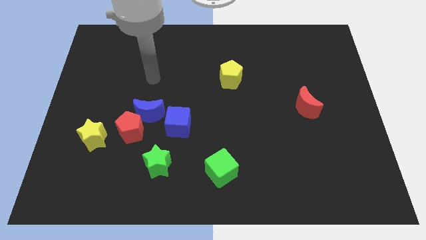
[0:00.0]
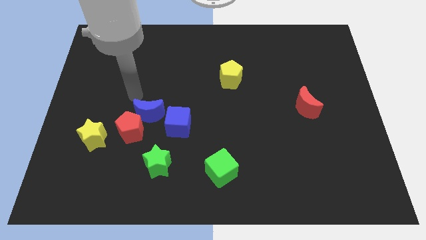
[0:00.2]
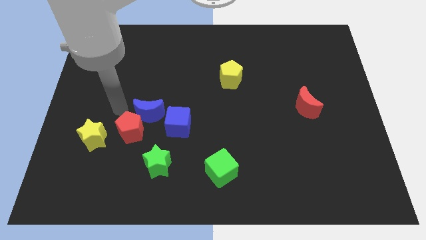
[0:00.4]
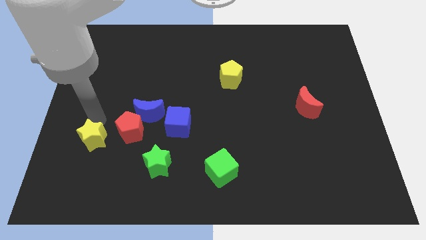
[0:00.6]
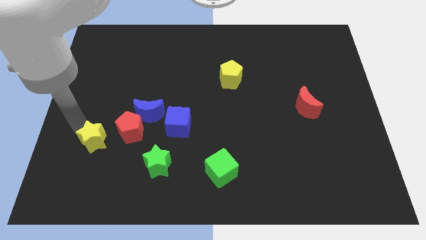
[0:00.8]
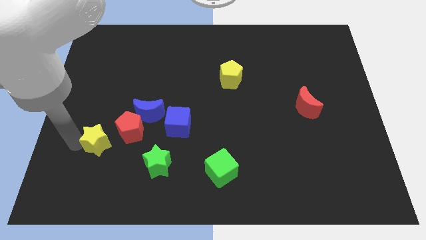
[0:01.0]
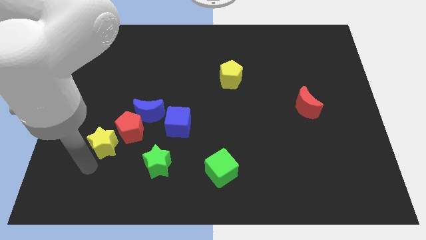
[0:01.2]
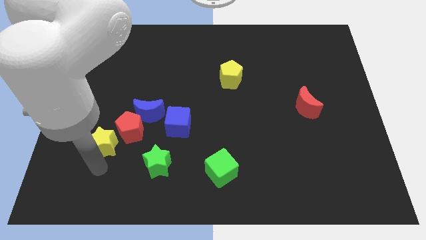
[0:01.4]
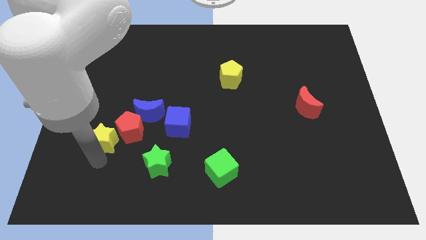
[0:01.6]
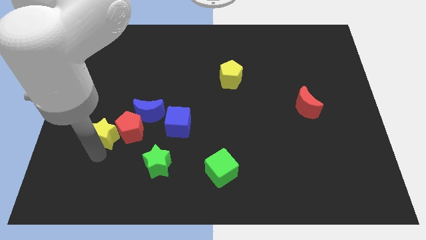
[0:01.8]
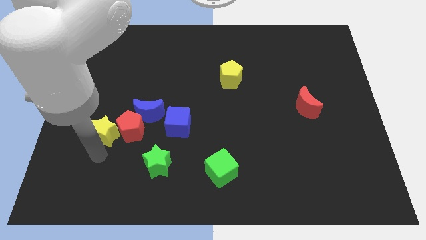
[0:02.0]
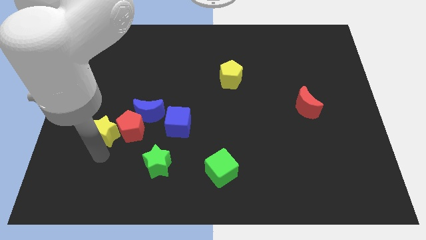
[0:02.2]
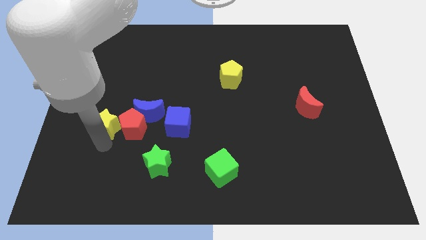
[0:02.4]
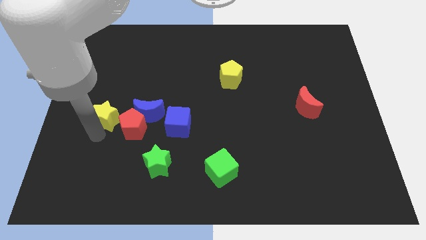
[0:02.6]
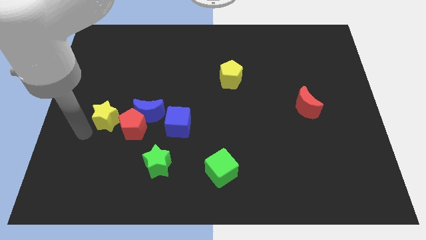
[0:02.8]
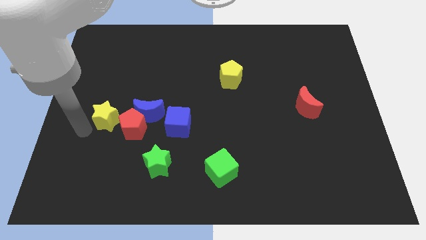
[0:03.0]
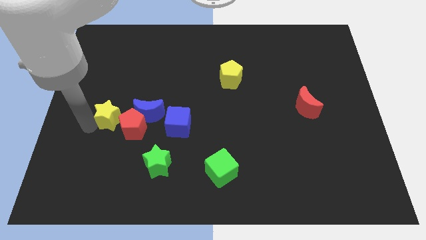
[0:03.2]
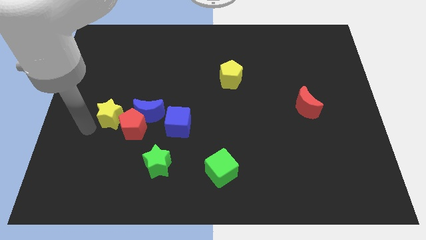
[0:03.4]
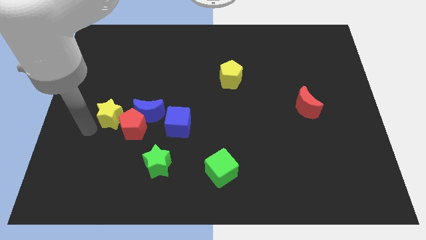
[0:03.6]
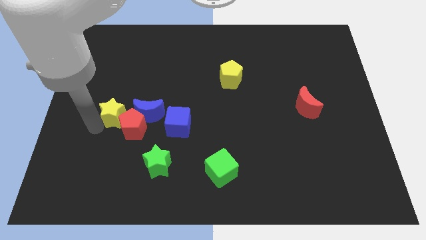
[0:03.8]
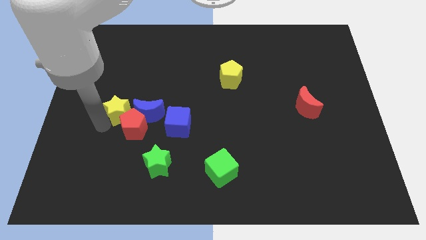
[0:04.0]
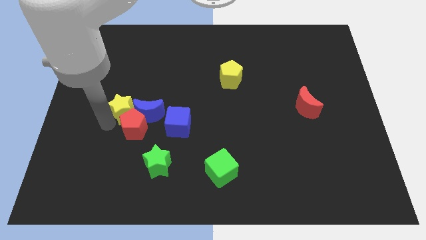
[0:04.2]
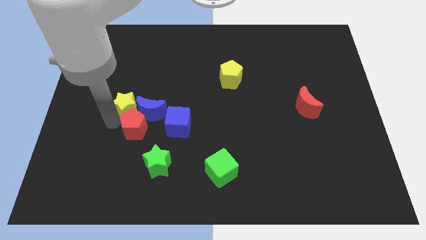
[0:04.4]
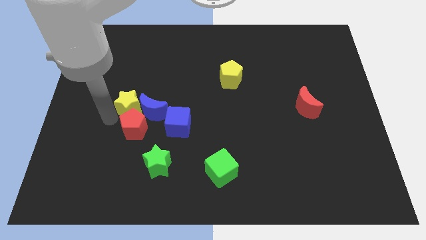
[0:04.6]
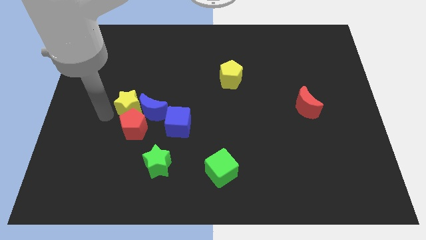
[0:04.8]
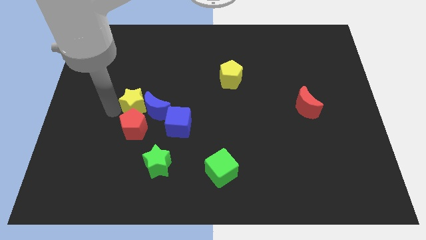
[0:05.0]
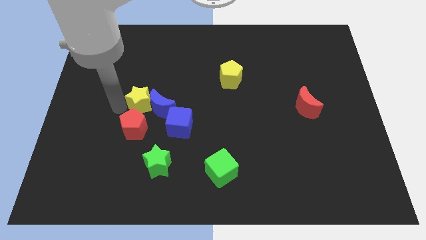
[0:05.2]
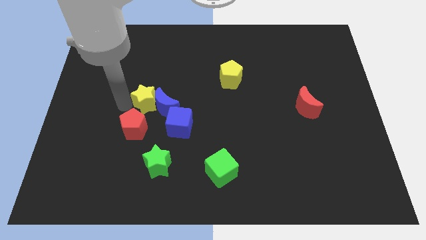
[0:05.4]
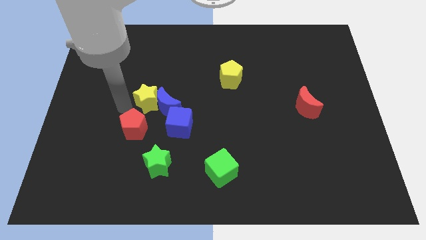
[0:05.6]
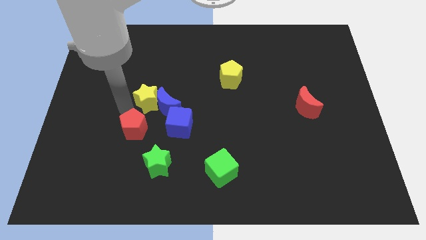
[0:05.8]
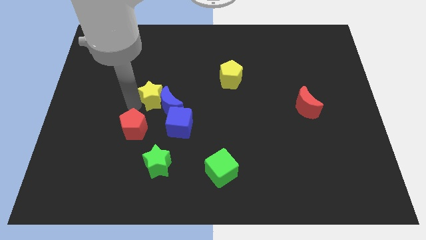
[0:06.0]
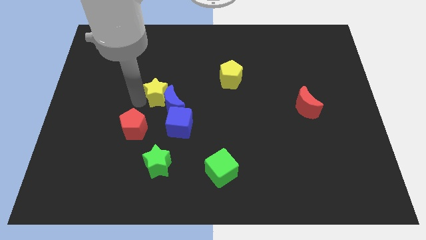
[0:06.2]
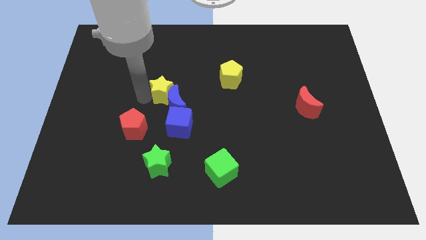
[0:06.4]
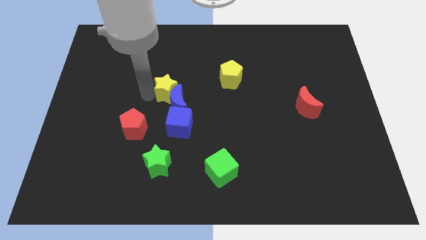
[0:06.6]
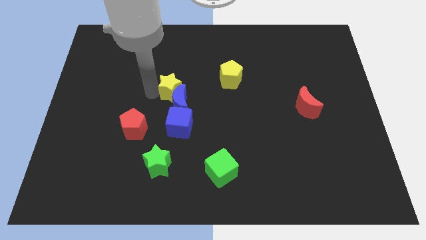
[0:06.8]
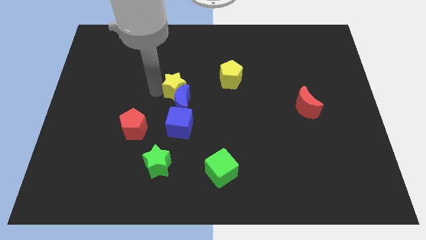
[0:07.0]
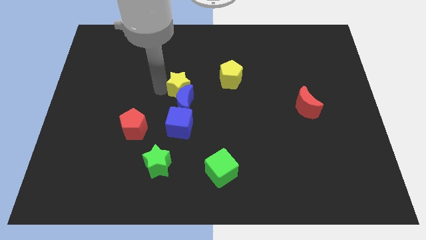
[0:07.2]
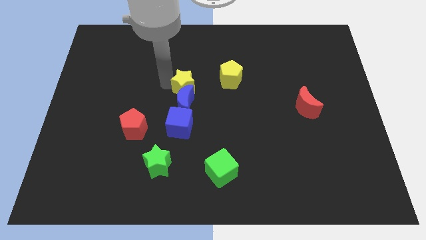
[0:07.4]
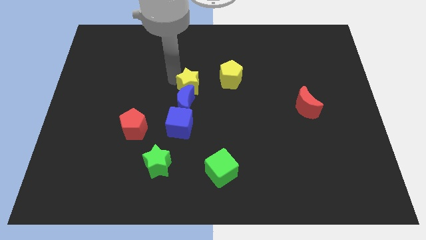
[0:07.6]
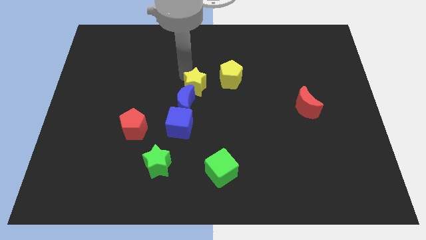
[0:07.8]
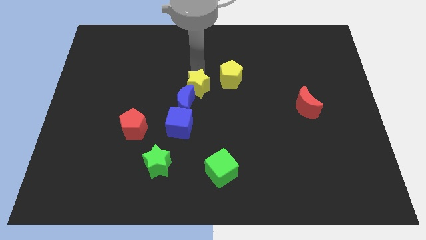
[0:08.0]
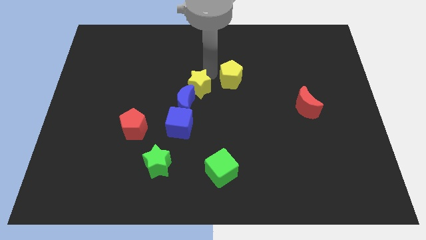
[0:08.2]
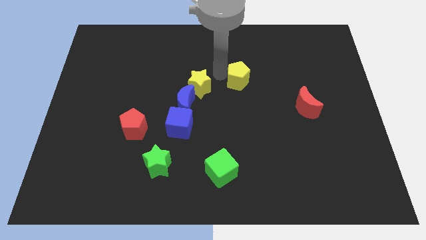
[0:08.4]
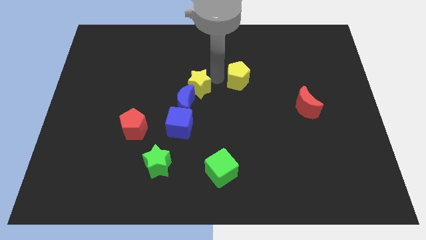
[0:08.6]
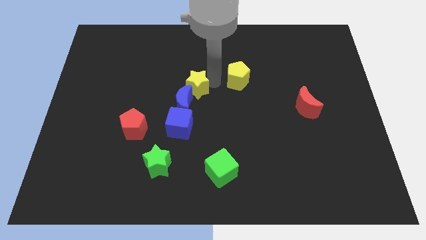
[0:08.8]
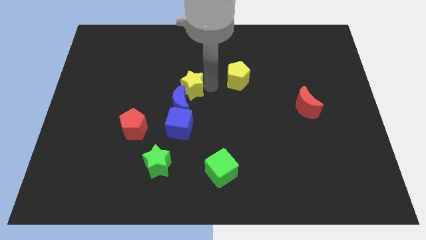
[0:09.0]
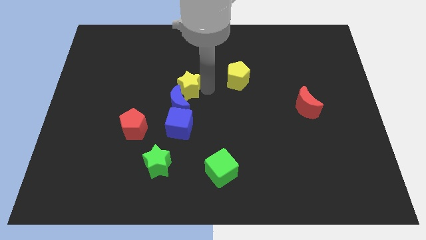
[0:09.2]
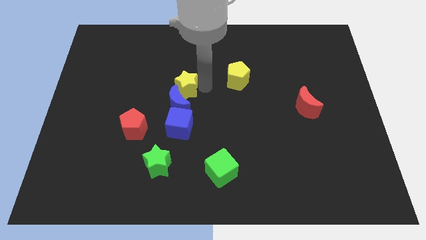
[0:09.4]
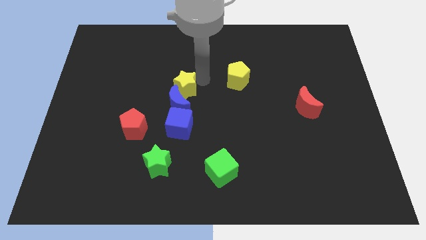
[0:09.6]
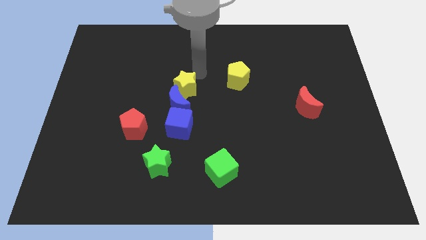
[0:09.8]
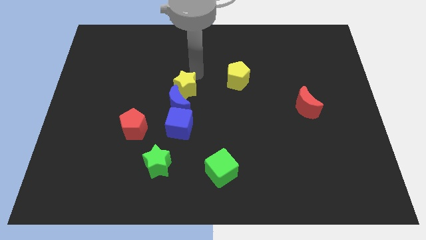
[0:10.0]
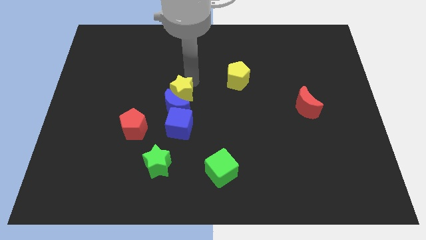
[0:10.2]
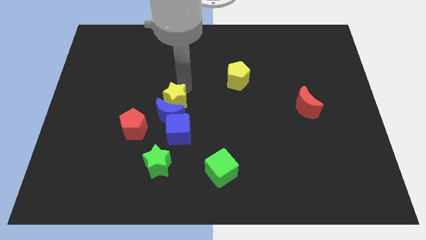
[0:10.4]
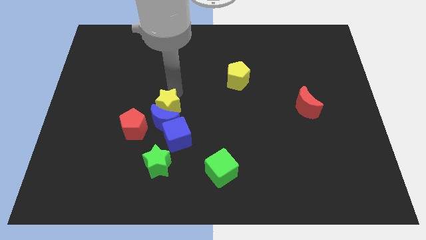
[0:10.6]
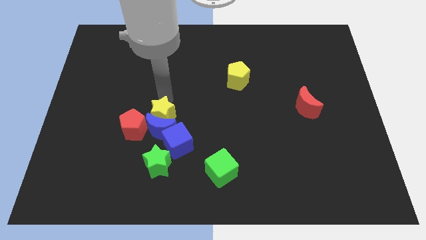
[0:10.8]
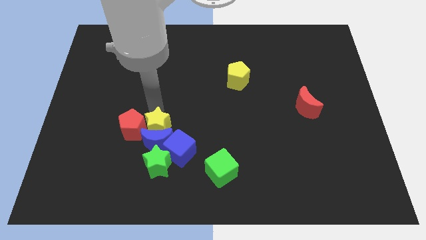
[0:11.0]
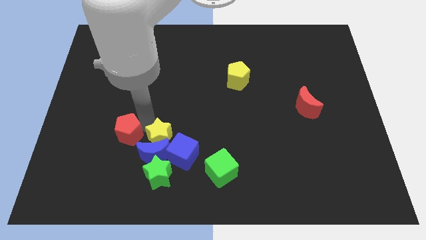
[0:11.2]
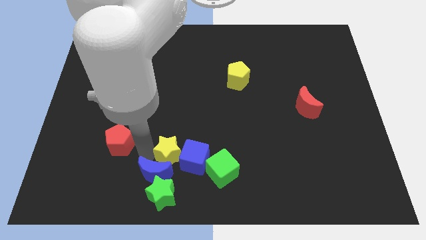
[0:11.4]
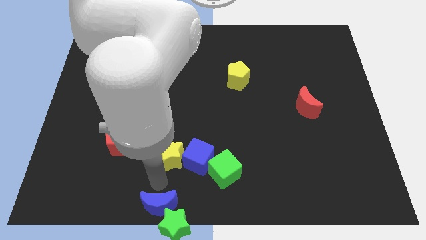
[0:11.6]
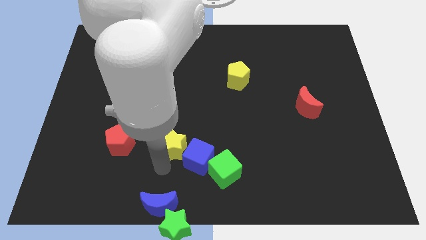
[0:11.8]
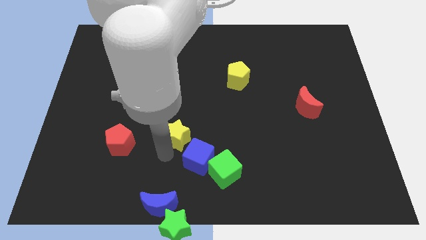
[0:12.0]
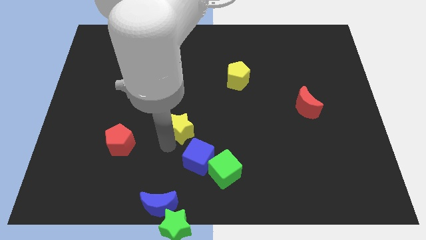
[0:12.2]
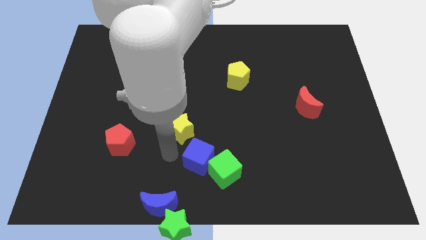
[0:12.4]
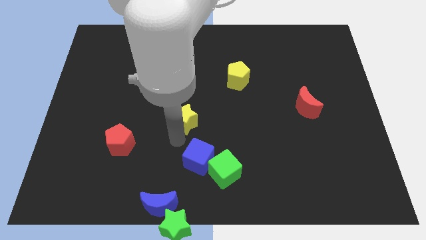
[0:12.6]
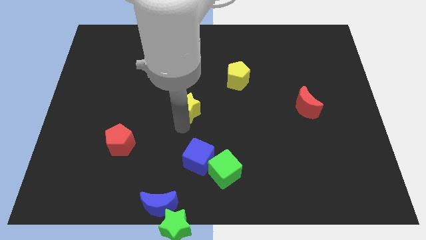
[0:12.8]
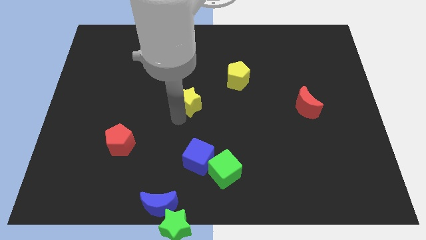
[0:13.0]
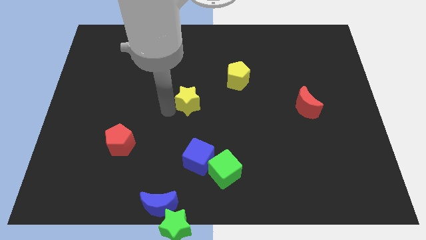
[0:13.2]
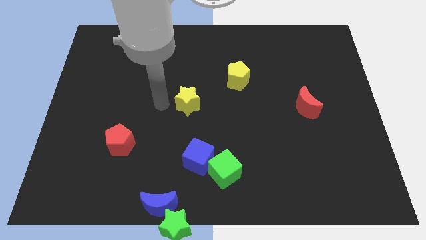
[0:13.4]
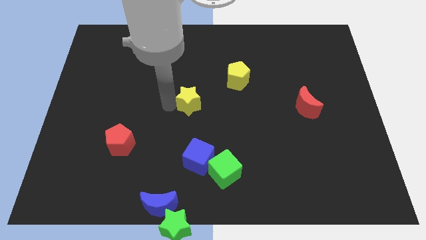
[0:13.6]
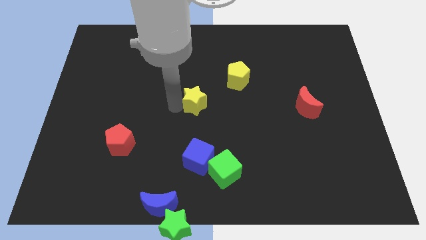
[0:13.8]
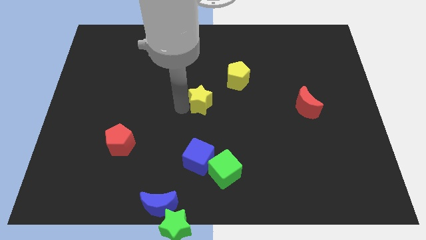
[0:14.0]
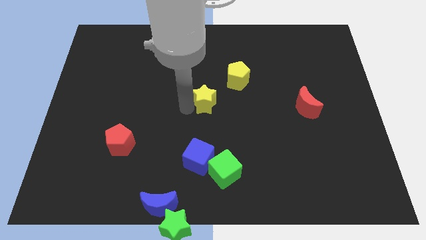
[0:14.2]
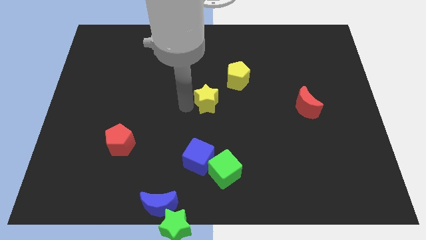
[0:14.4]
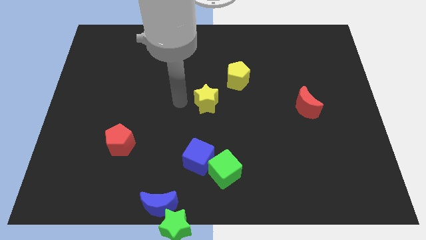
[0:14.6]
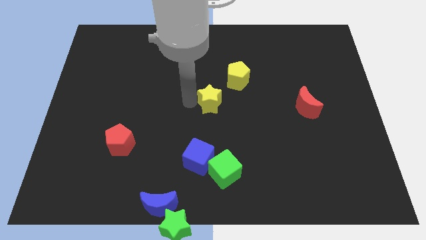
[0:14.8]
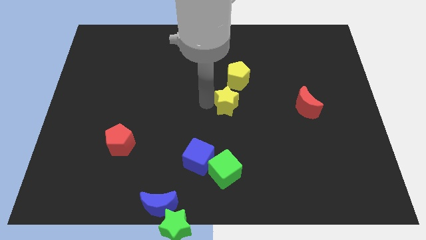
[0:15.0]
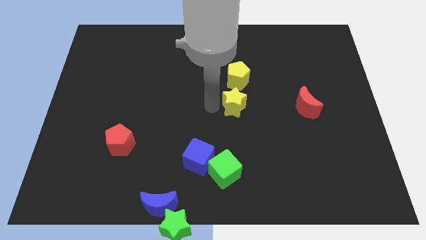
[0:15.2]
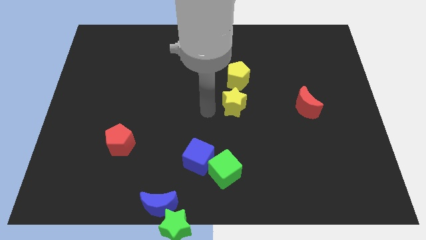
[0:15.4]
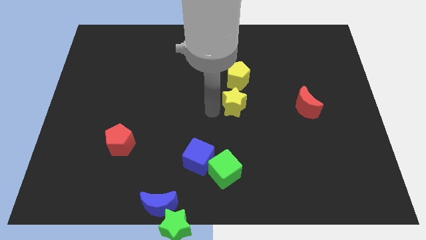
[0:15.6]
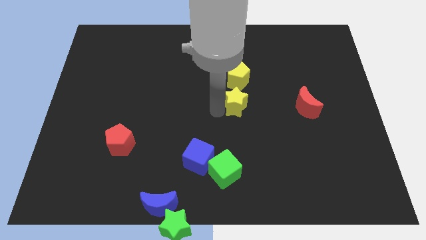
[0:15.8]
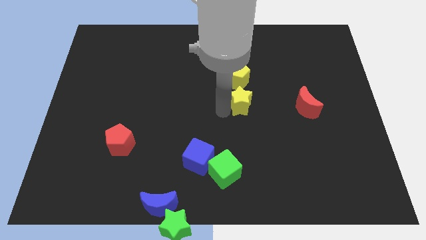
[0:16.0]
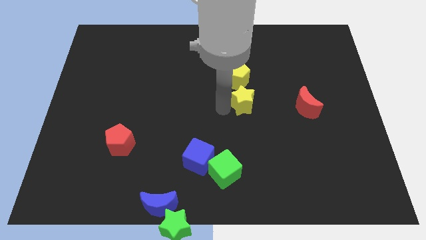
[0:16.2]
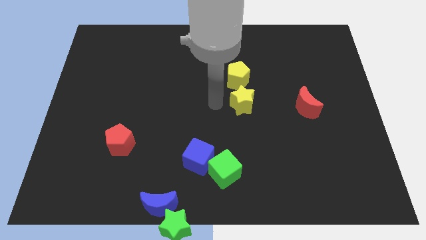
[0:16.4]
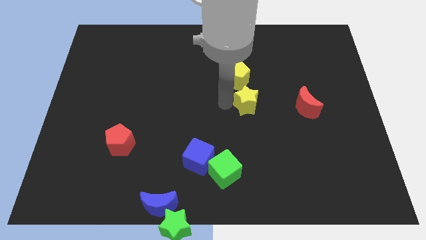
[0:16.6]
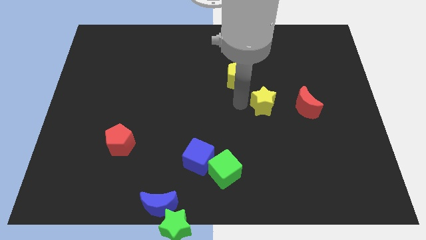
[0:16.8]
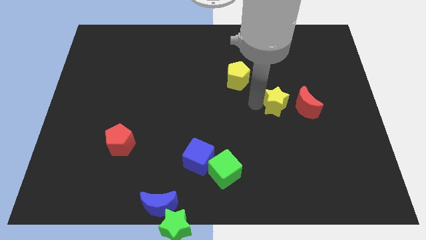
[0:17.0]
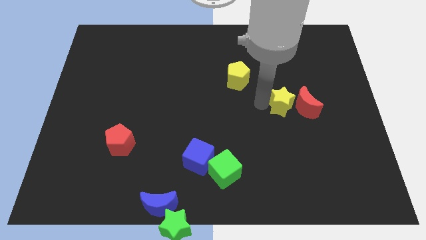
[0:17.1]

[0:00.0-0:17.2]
slide the yellow star towards the red moon
